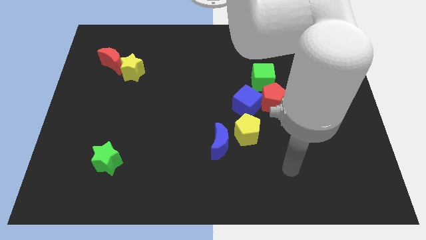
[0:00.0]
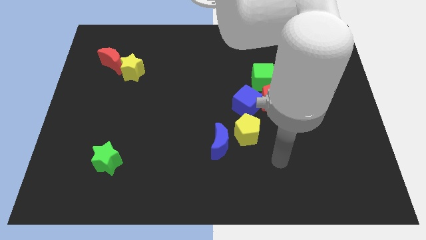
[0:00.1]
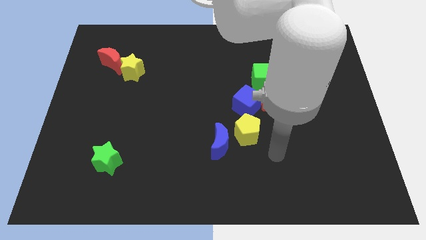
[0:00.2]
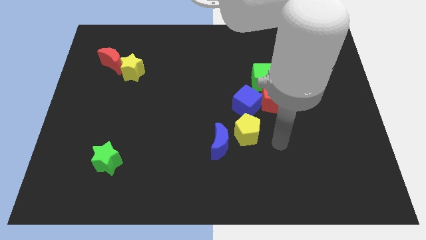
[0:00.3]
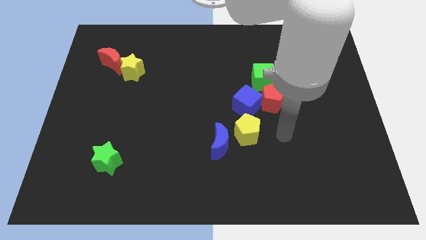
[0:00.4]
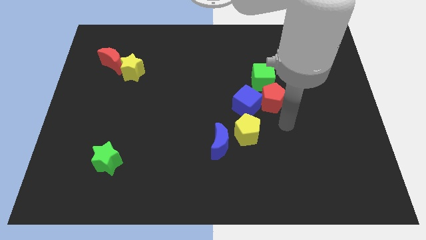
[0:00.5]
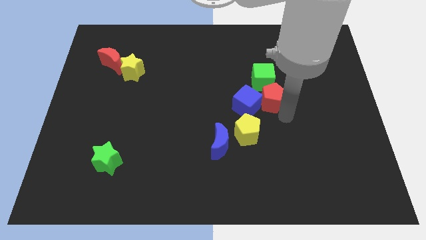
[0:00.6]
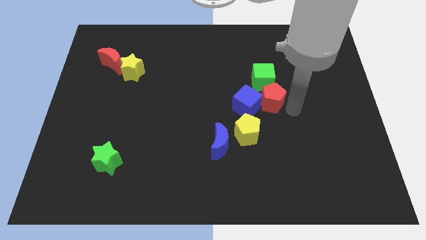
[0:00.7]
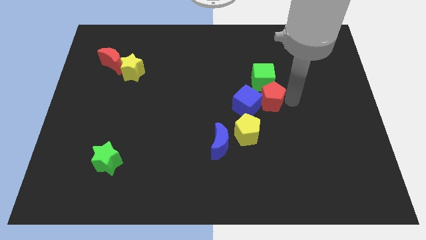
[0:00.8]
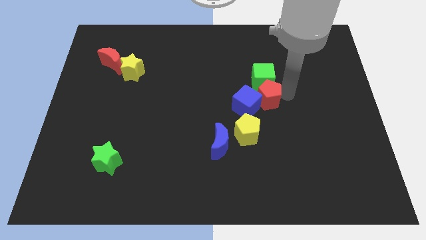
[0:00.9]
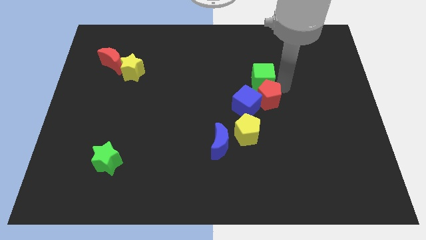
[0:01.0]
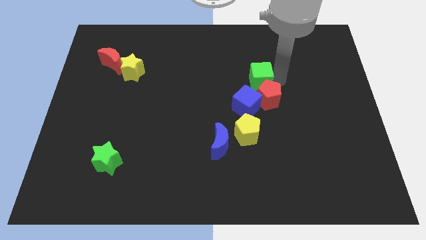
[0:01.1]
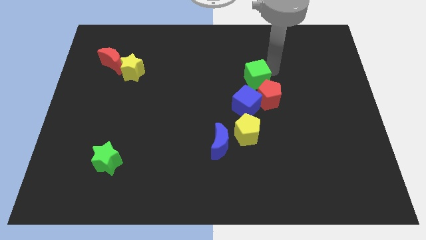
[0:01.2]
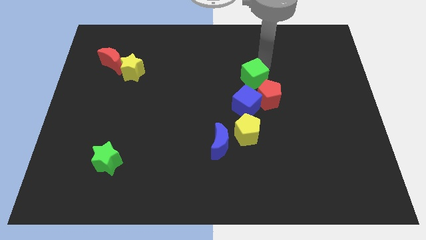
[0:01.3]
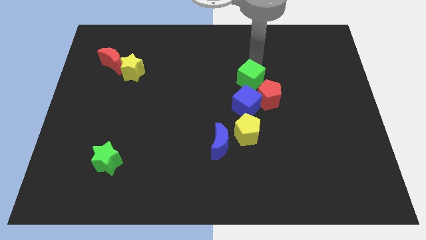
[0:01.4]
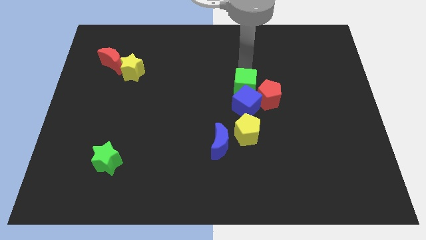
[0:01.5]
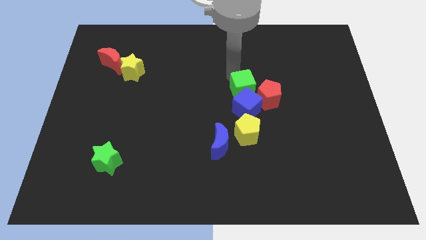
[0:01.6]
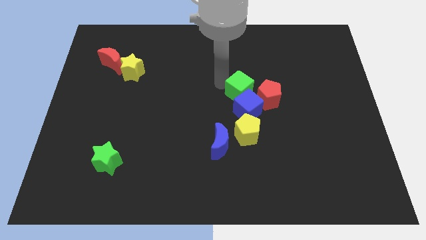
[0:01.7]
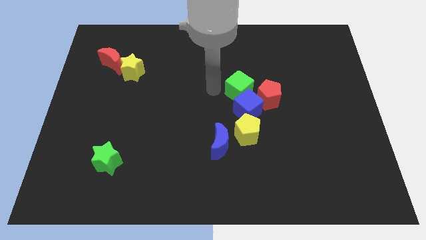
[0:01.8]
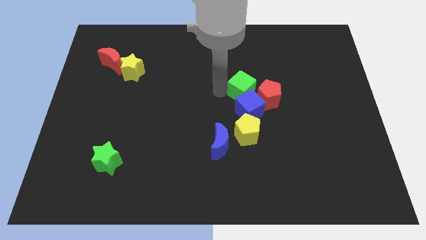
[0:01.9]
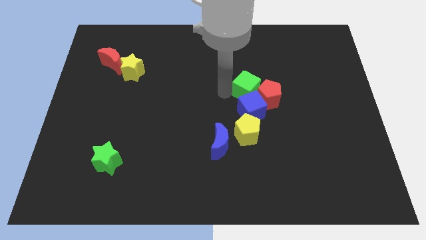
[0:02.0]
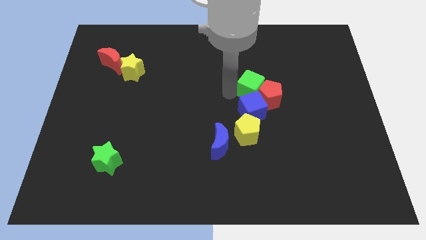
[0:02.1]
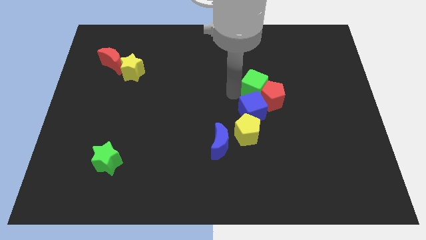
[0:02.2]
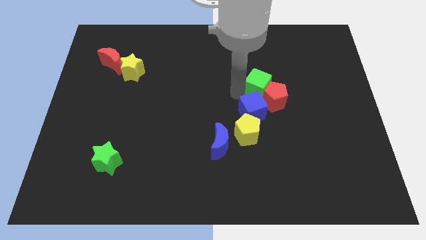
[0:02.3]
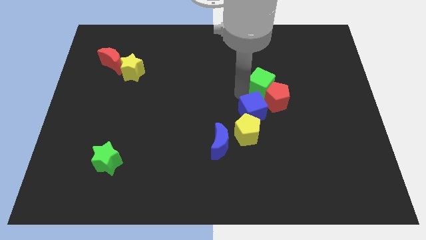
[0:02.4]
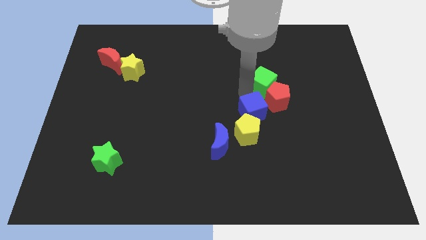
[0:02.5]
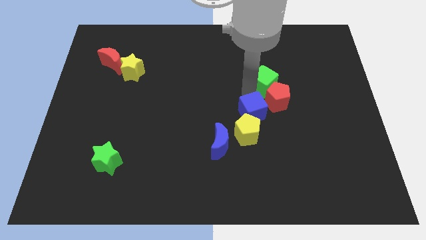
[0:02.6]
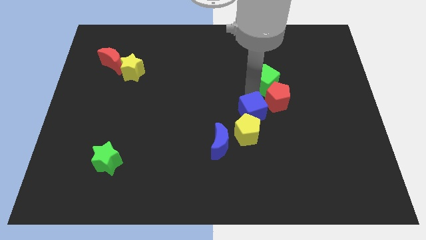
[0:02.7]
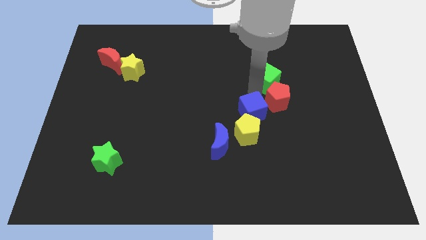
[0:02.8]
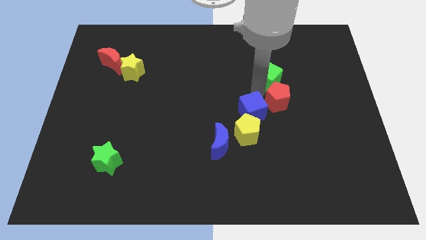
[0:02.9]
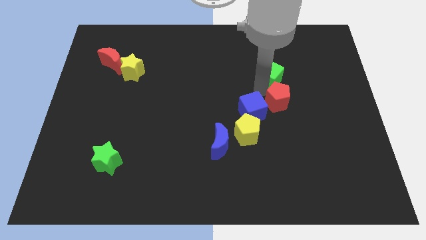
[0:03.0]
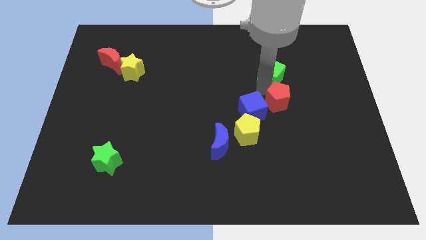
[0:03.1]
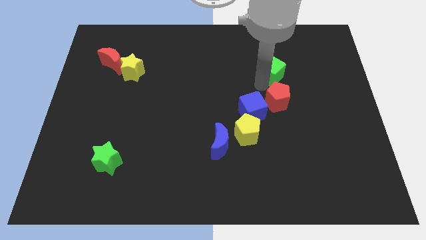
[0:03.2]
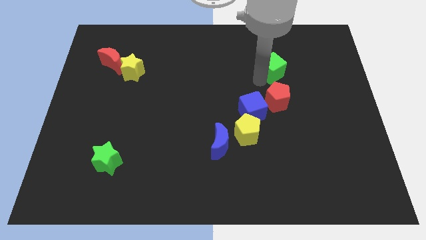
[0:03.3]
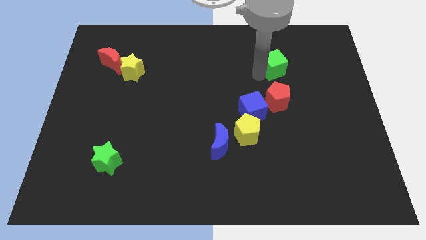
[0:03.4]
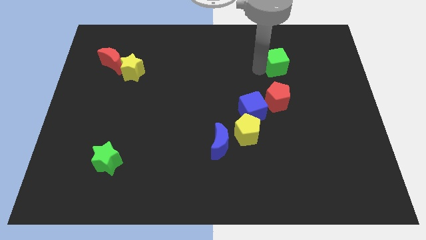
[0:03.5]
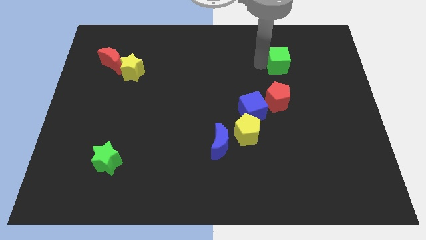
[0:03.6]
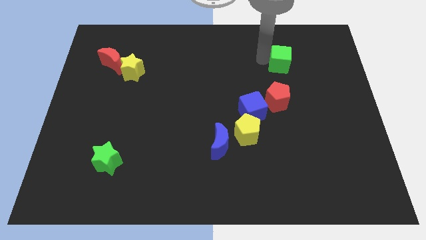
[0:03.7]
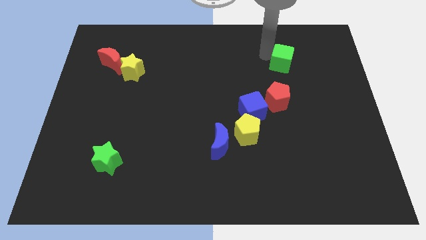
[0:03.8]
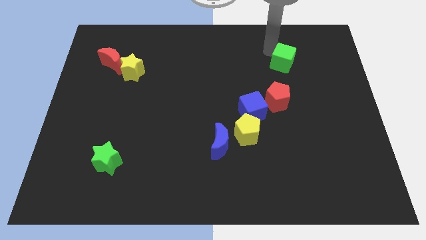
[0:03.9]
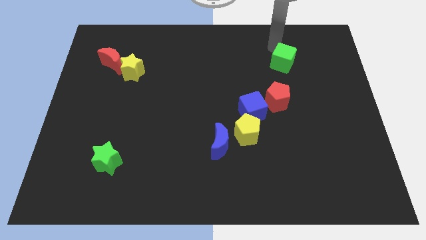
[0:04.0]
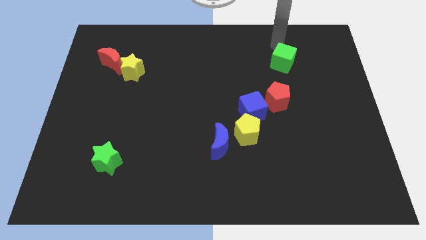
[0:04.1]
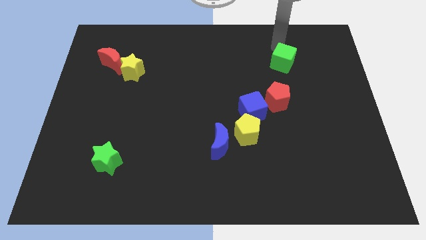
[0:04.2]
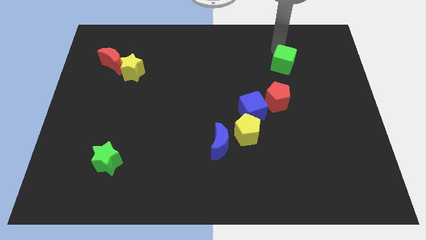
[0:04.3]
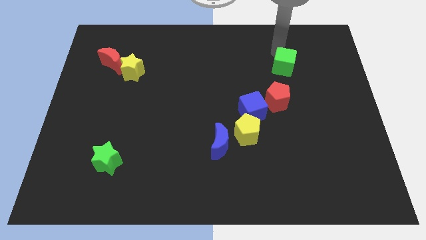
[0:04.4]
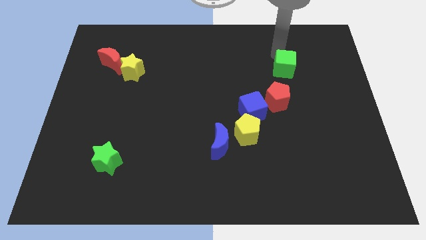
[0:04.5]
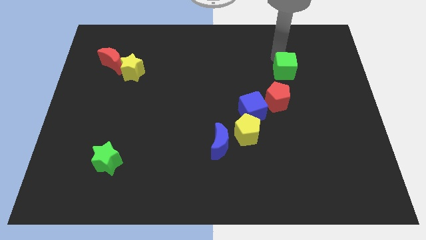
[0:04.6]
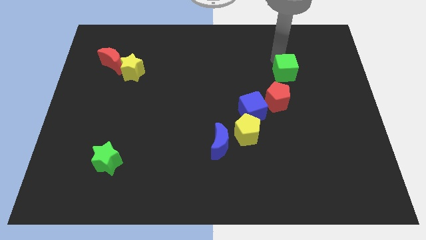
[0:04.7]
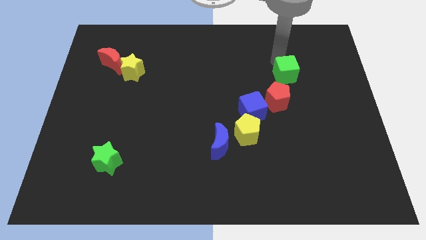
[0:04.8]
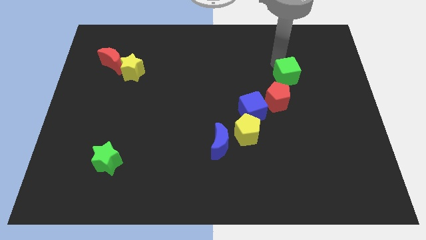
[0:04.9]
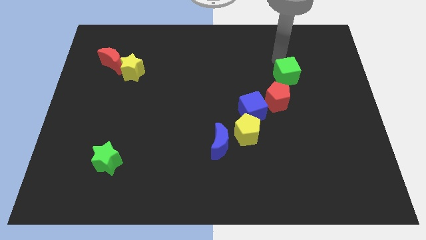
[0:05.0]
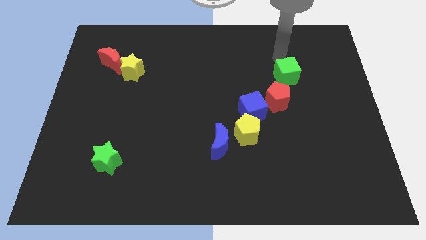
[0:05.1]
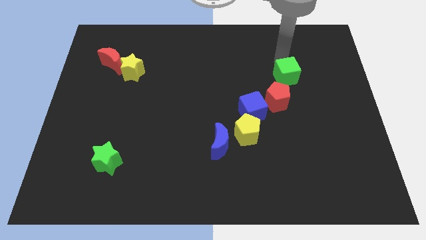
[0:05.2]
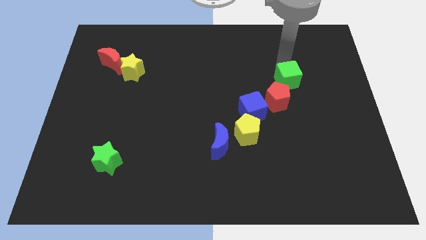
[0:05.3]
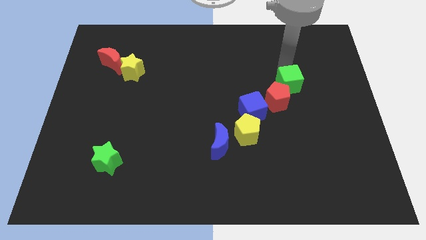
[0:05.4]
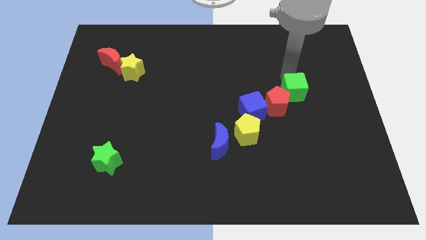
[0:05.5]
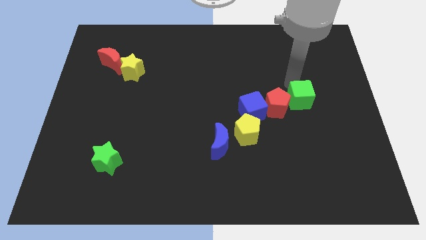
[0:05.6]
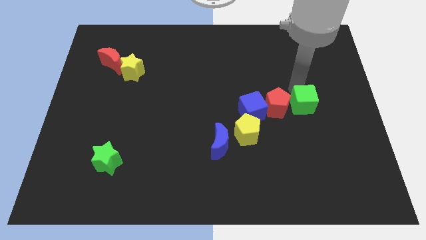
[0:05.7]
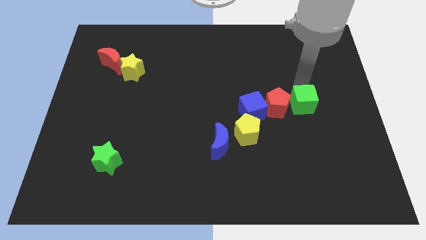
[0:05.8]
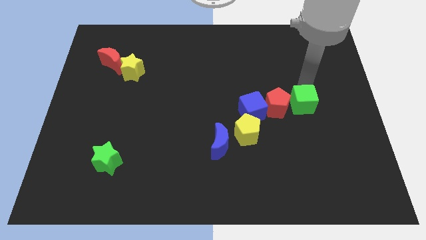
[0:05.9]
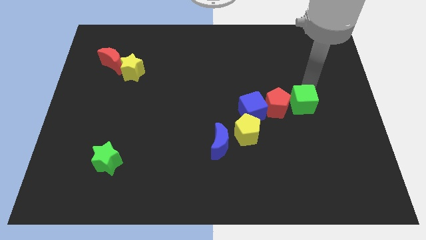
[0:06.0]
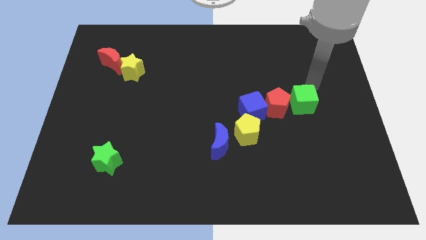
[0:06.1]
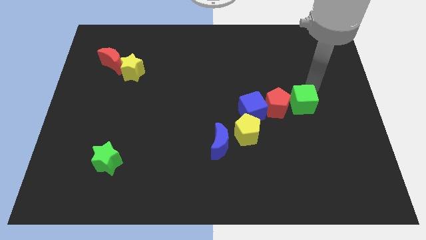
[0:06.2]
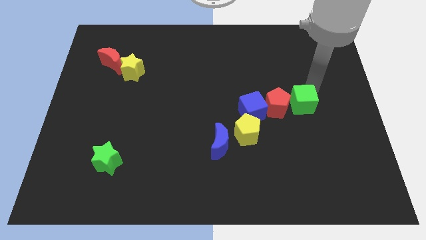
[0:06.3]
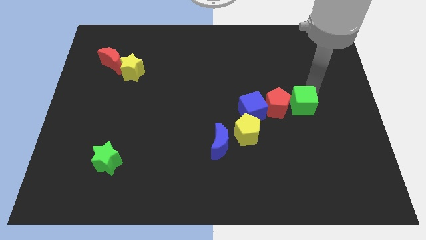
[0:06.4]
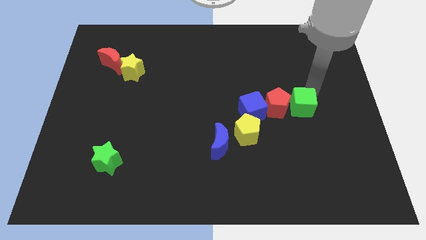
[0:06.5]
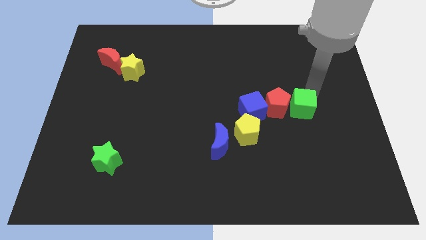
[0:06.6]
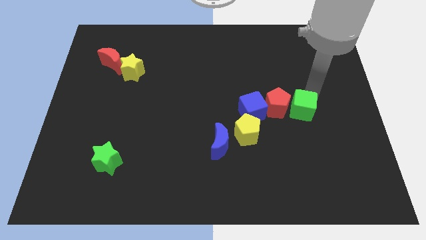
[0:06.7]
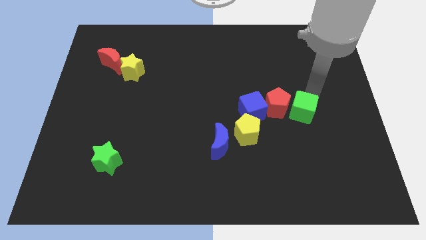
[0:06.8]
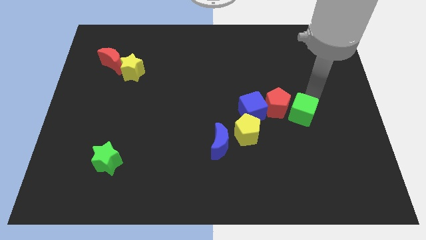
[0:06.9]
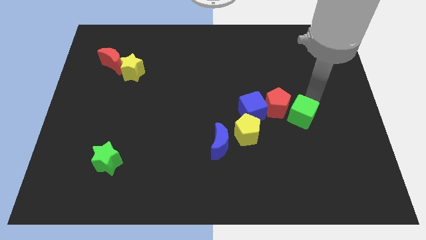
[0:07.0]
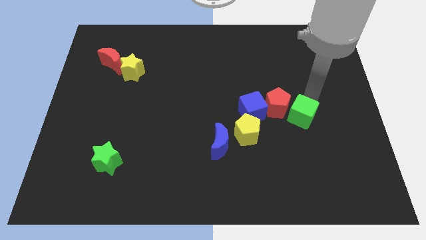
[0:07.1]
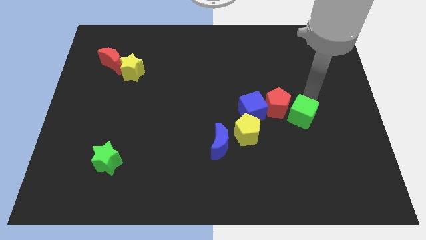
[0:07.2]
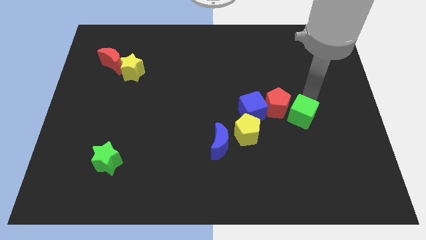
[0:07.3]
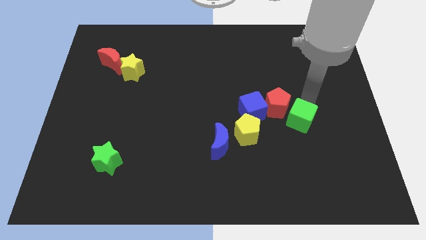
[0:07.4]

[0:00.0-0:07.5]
push the green cube to the right side of the yellow pentagon
